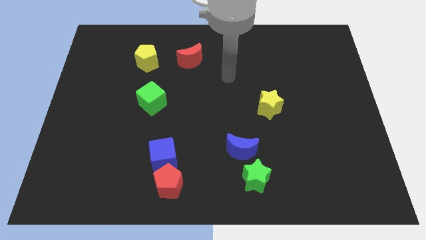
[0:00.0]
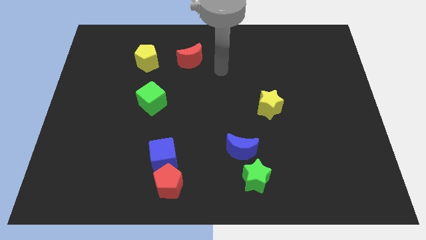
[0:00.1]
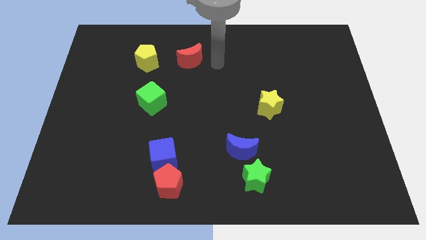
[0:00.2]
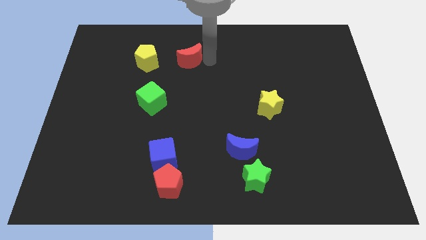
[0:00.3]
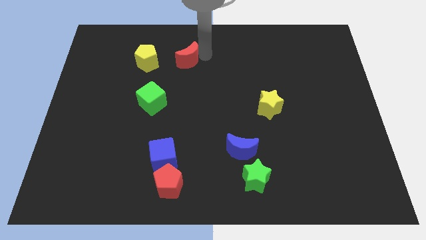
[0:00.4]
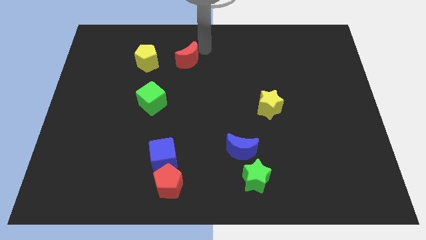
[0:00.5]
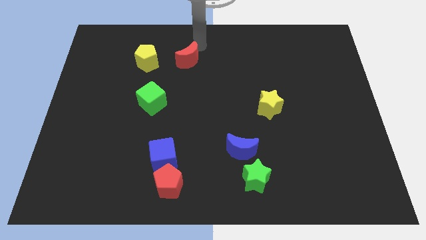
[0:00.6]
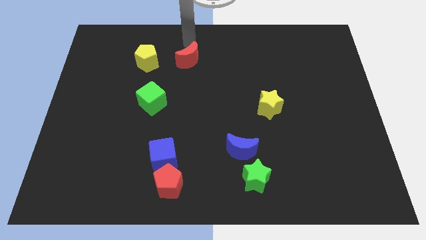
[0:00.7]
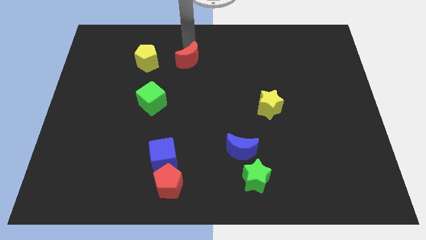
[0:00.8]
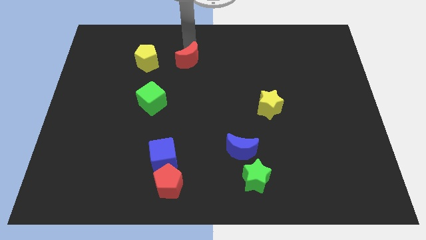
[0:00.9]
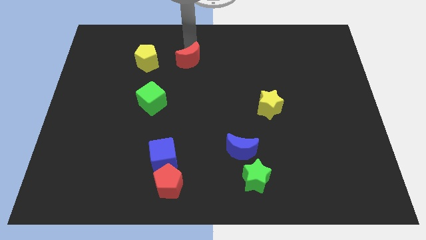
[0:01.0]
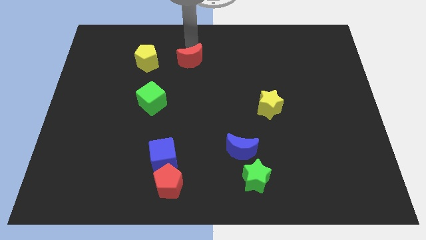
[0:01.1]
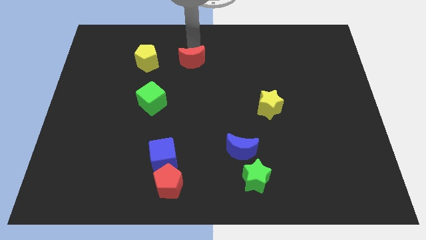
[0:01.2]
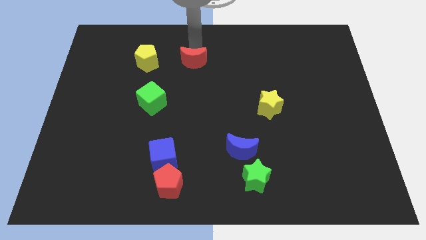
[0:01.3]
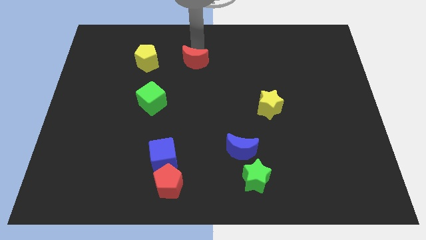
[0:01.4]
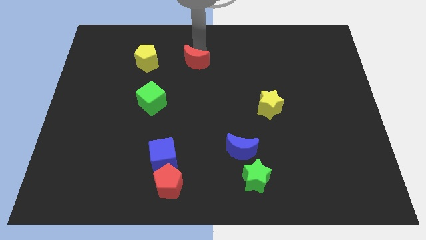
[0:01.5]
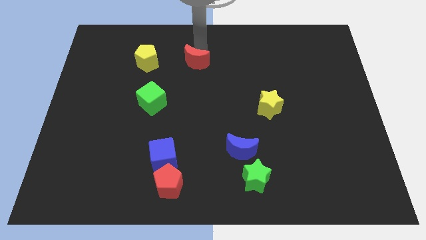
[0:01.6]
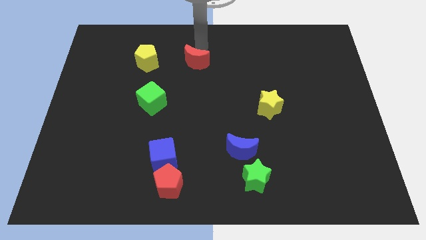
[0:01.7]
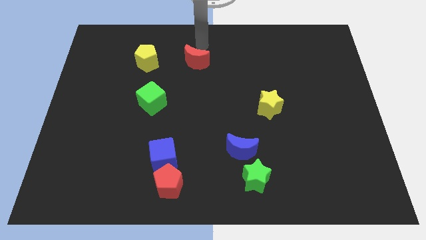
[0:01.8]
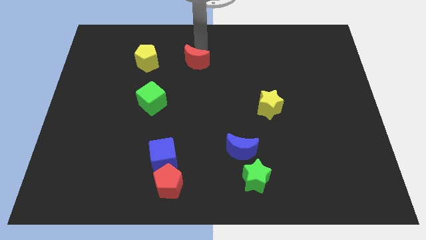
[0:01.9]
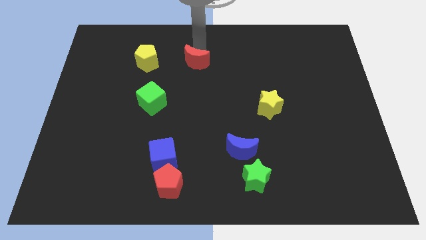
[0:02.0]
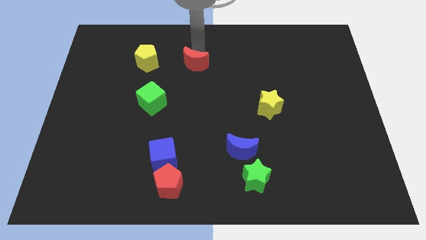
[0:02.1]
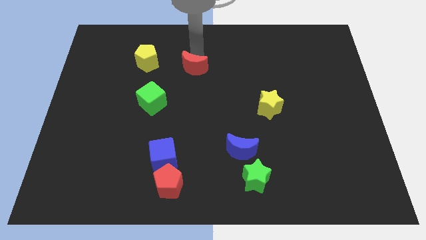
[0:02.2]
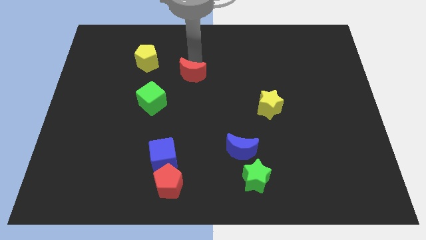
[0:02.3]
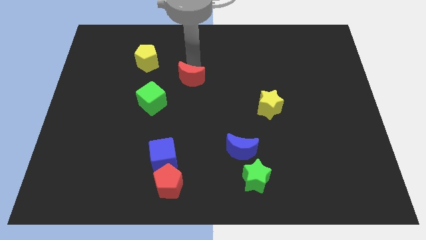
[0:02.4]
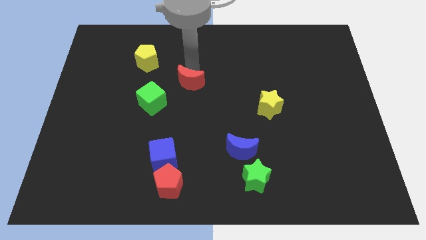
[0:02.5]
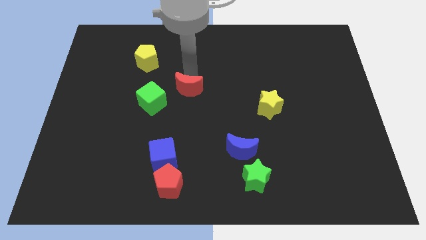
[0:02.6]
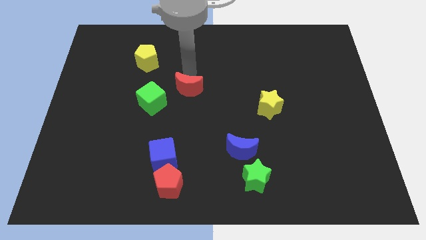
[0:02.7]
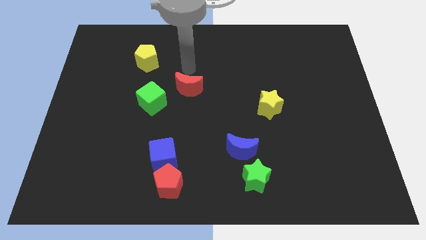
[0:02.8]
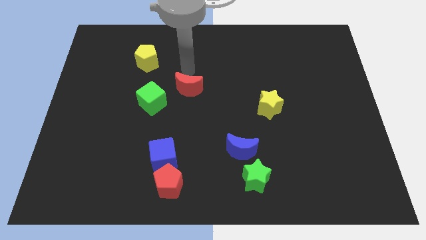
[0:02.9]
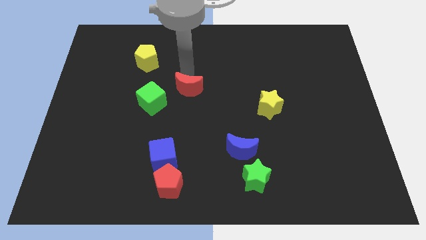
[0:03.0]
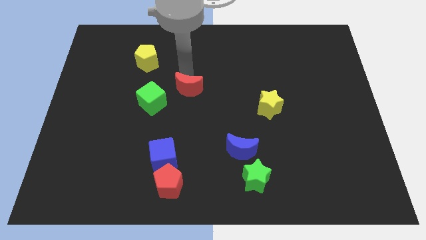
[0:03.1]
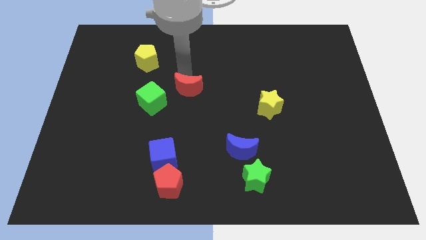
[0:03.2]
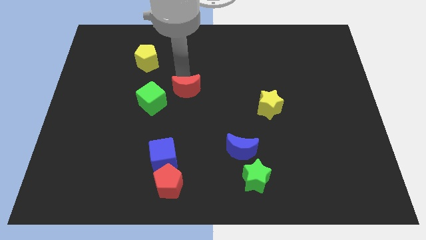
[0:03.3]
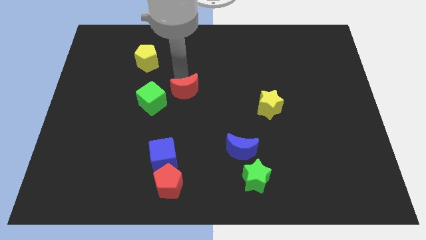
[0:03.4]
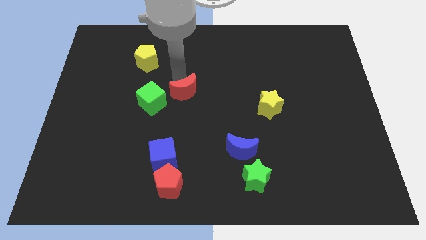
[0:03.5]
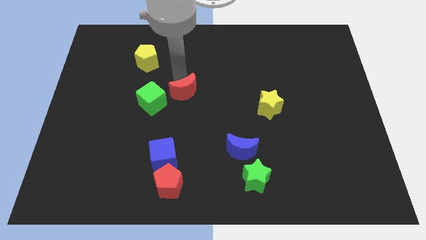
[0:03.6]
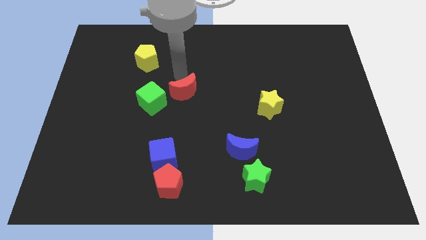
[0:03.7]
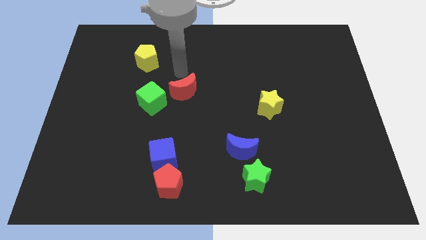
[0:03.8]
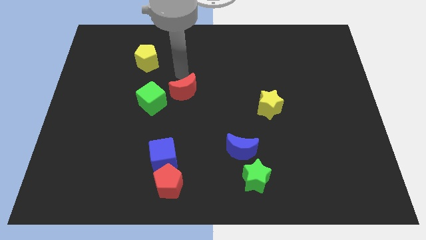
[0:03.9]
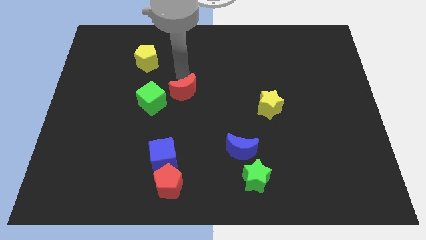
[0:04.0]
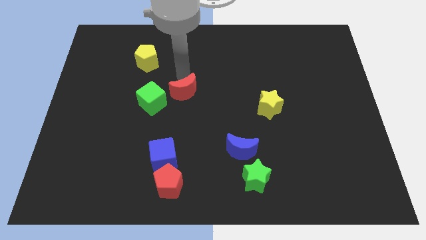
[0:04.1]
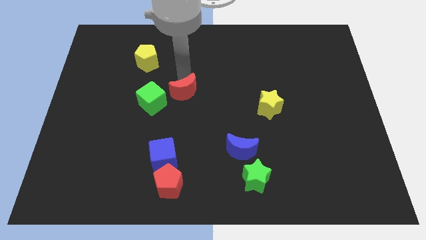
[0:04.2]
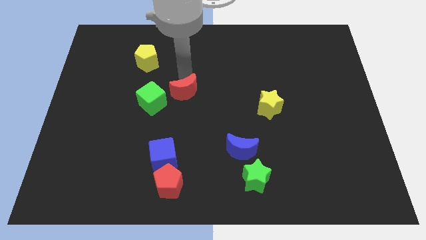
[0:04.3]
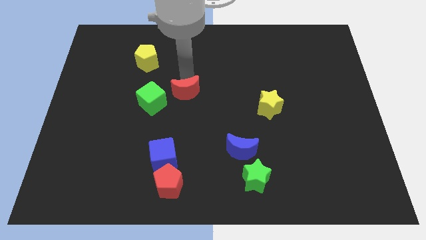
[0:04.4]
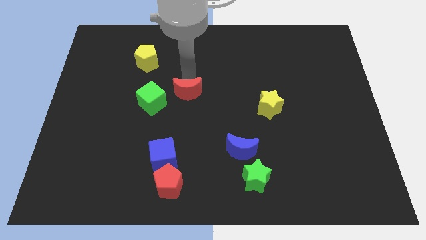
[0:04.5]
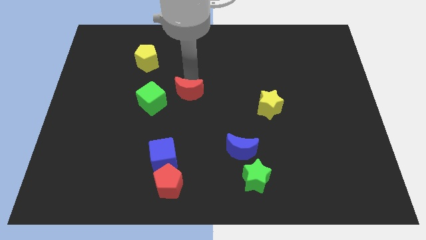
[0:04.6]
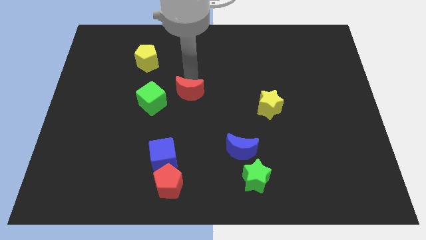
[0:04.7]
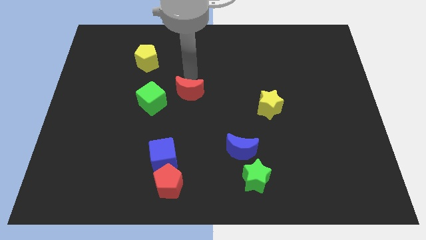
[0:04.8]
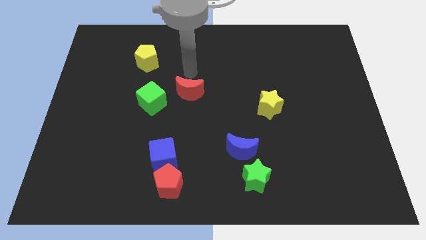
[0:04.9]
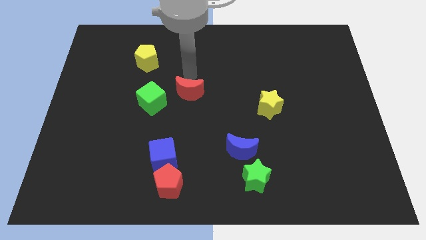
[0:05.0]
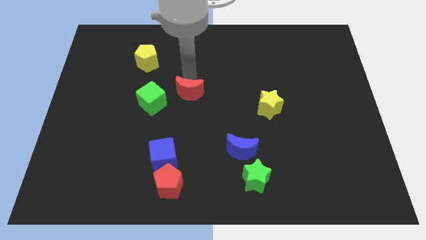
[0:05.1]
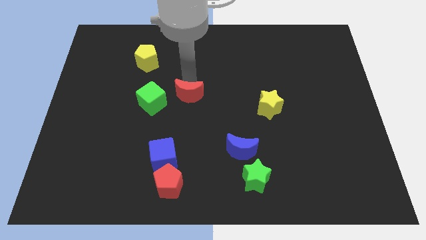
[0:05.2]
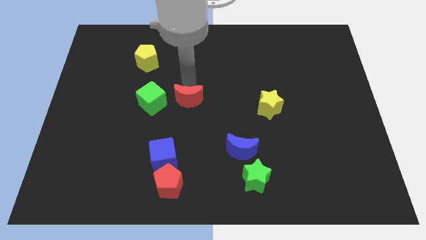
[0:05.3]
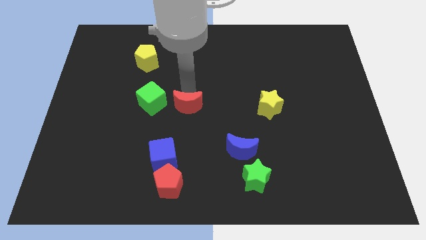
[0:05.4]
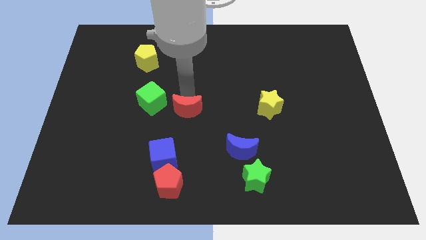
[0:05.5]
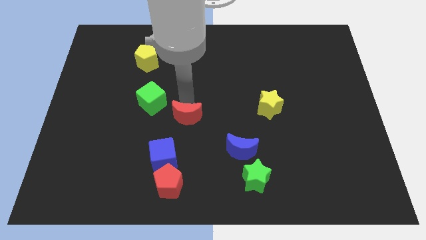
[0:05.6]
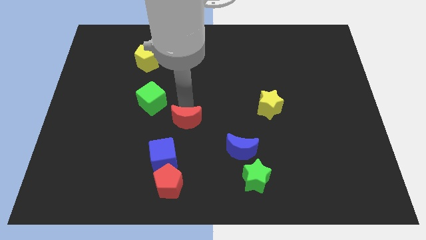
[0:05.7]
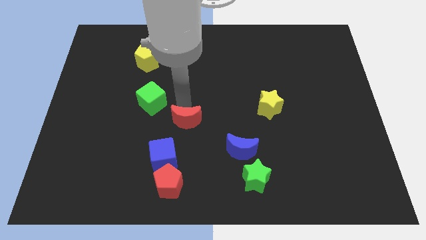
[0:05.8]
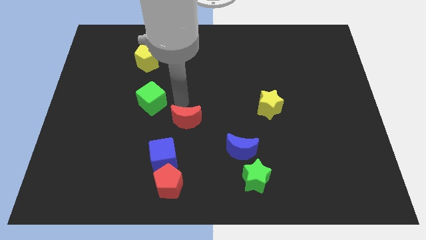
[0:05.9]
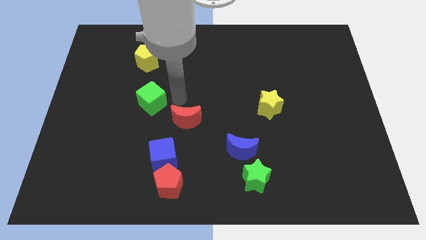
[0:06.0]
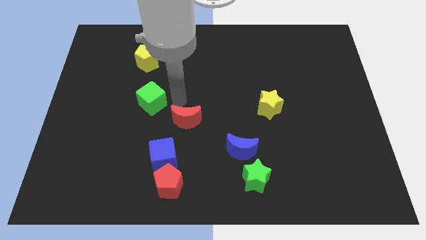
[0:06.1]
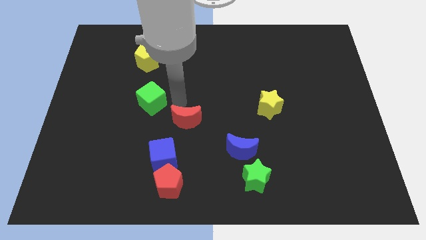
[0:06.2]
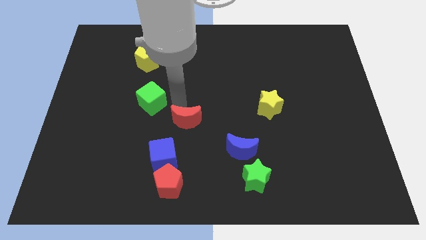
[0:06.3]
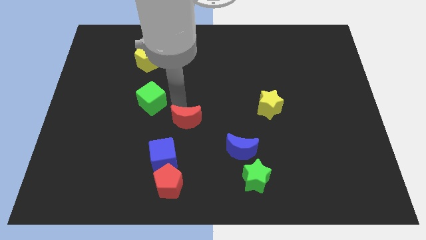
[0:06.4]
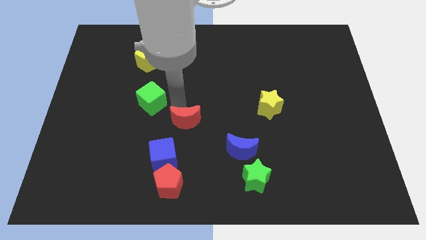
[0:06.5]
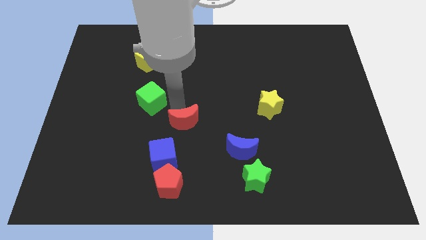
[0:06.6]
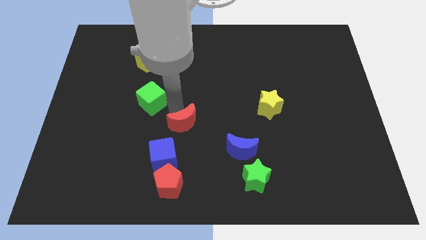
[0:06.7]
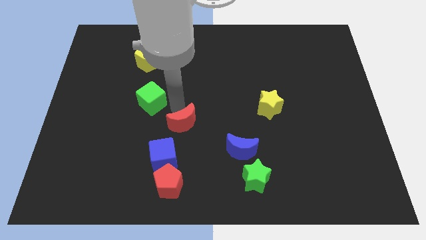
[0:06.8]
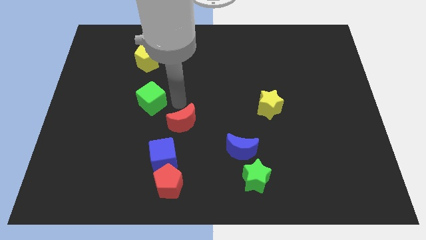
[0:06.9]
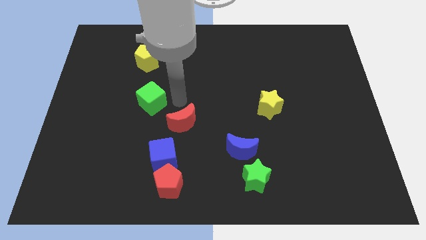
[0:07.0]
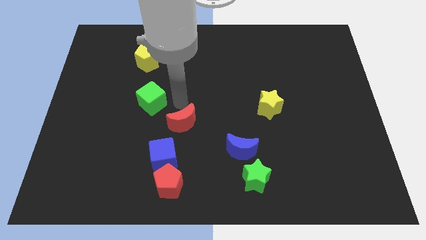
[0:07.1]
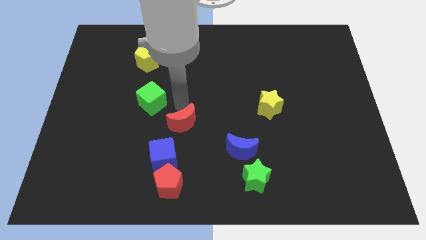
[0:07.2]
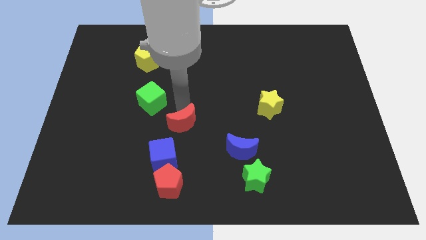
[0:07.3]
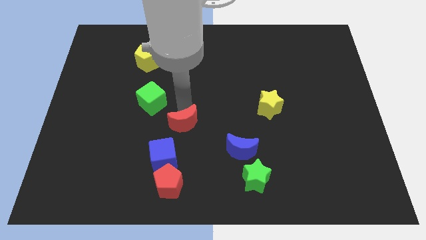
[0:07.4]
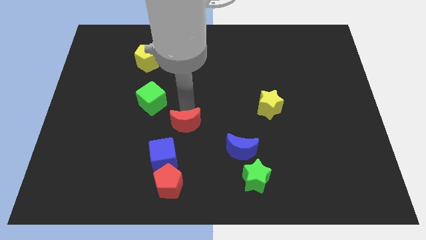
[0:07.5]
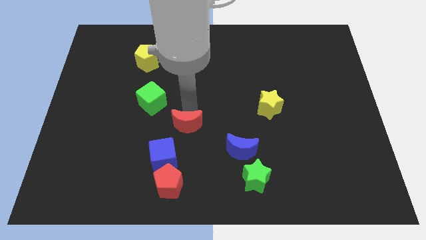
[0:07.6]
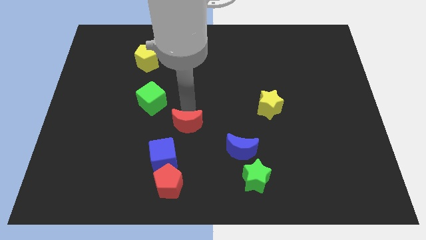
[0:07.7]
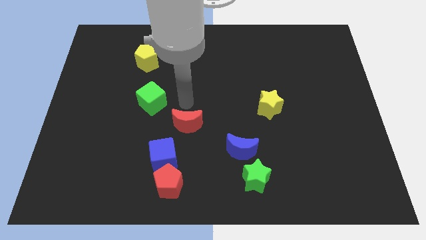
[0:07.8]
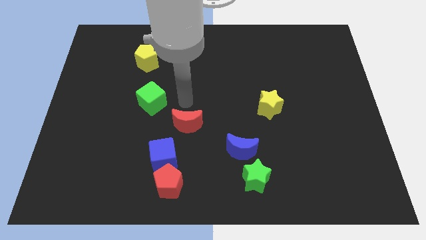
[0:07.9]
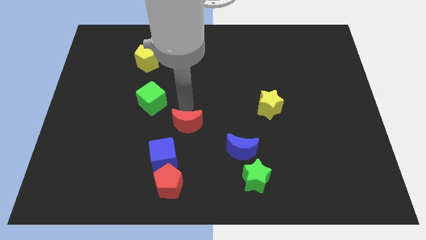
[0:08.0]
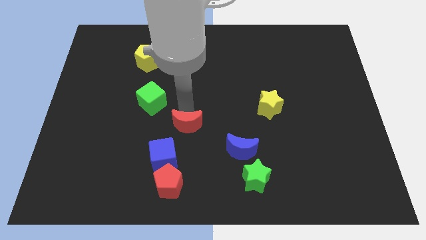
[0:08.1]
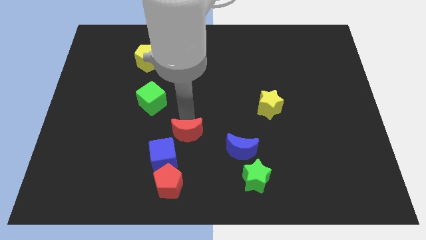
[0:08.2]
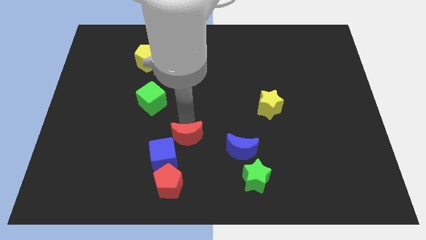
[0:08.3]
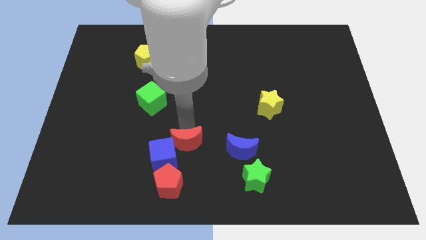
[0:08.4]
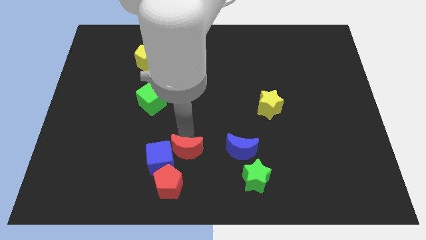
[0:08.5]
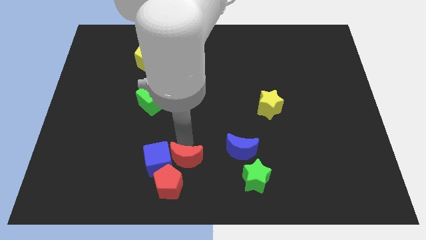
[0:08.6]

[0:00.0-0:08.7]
push the red moon to the bottom side
